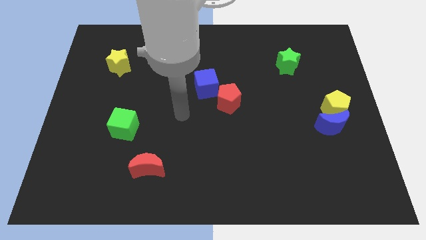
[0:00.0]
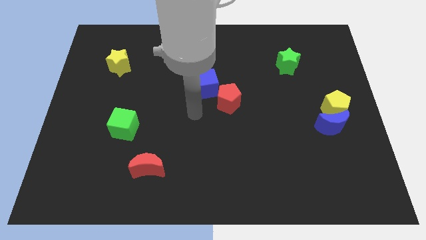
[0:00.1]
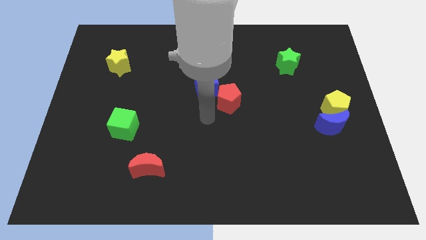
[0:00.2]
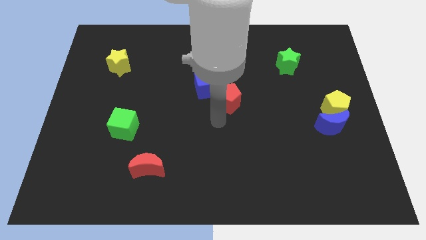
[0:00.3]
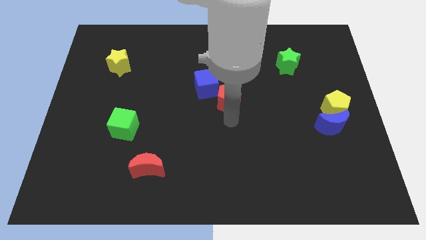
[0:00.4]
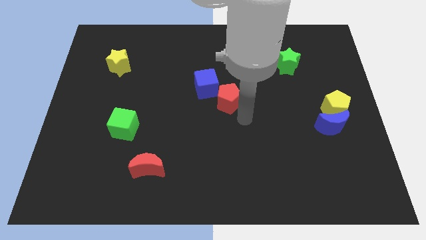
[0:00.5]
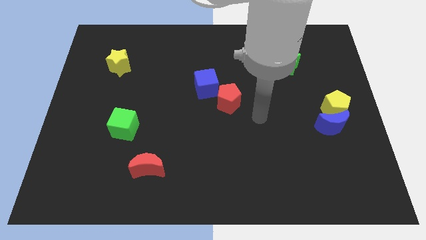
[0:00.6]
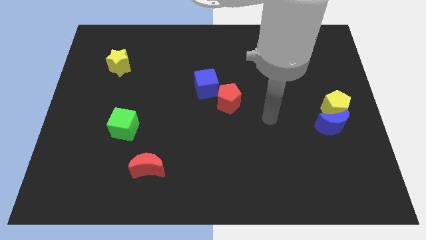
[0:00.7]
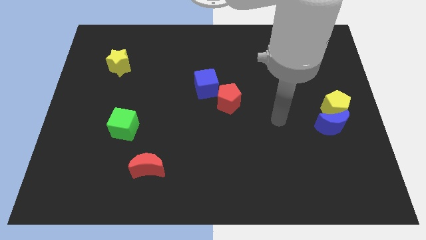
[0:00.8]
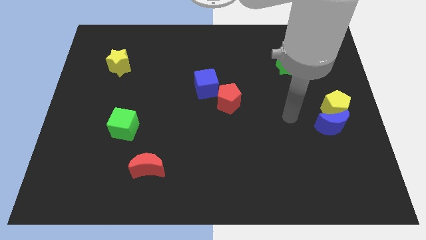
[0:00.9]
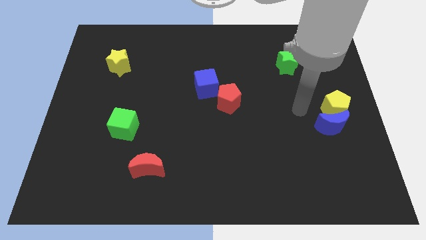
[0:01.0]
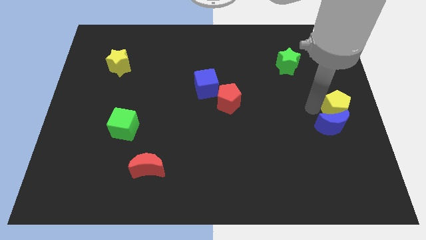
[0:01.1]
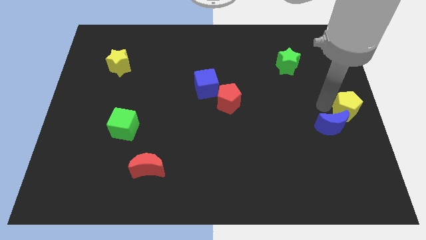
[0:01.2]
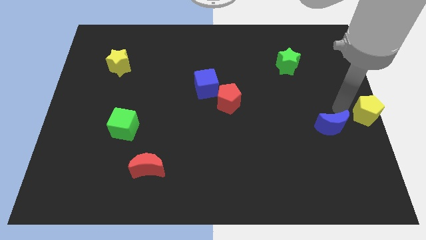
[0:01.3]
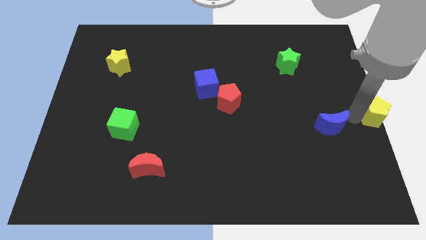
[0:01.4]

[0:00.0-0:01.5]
pull the blue moon apart from the yellow pentagon

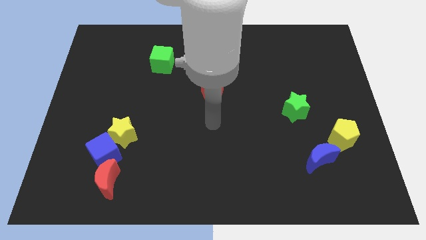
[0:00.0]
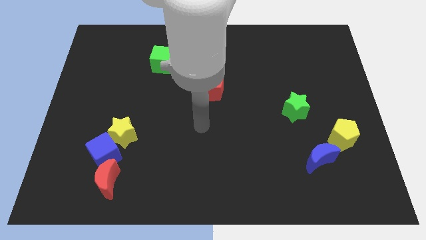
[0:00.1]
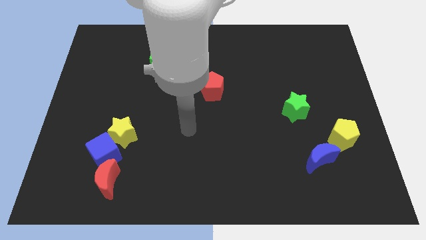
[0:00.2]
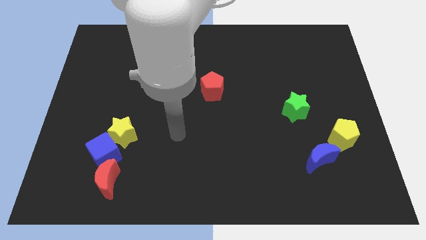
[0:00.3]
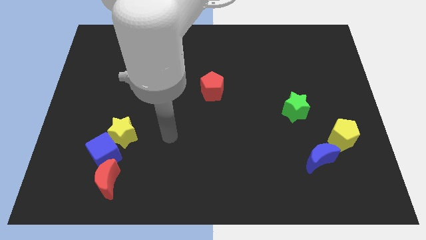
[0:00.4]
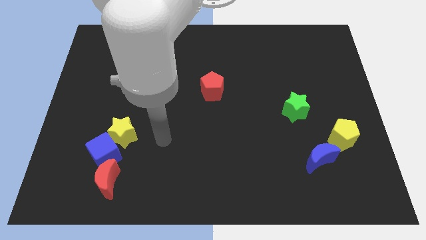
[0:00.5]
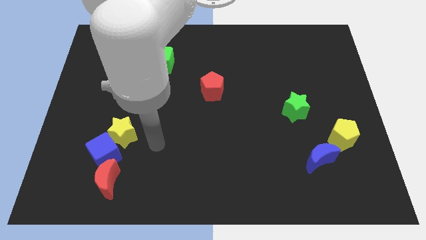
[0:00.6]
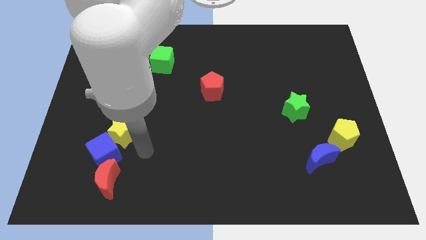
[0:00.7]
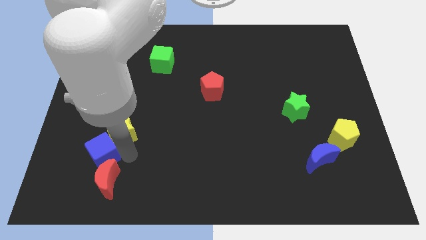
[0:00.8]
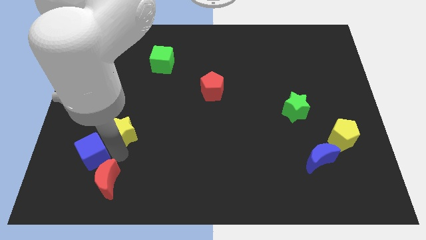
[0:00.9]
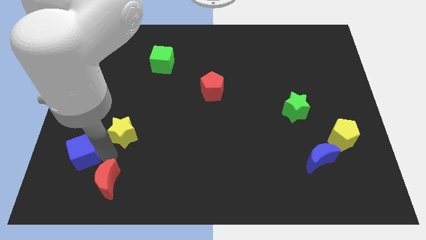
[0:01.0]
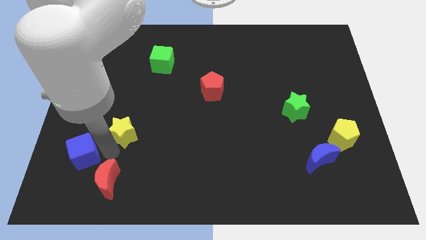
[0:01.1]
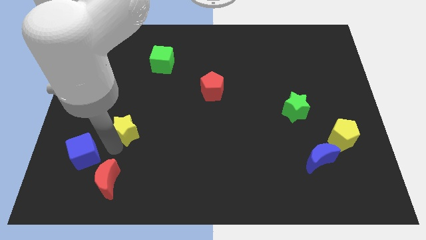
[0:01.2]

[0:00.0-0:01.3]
move the yellow star away from the blue cube

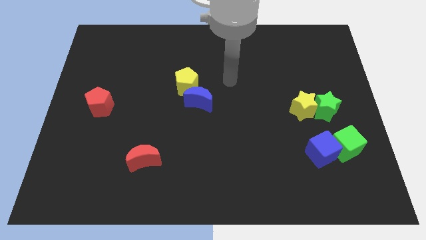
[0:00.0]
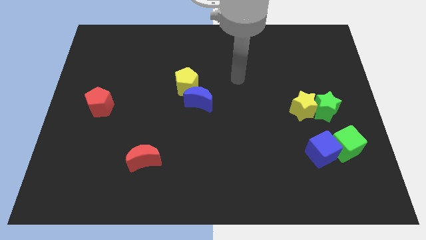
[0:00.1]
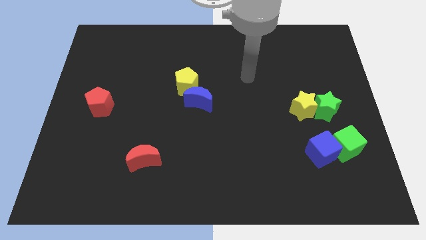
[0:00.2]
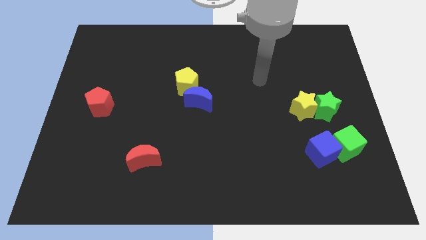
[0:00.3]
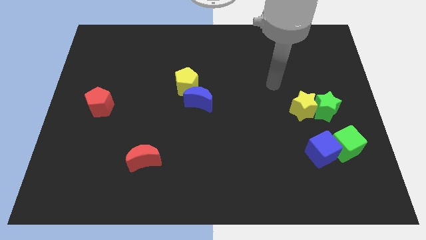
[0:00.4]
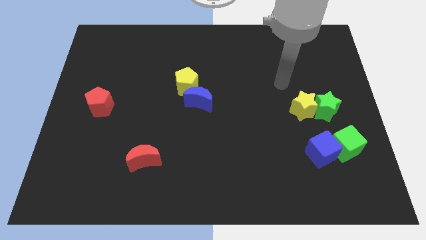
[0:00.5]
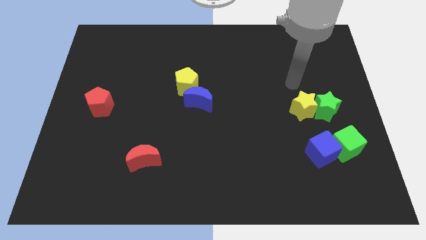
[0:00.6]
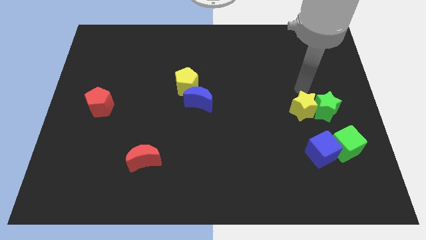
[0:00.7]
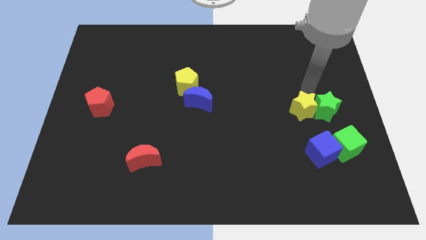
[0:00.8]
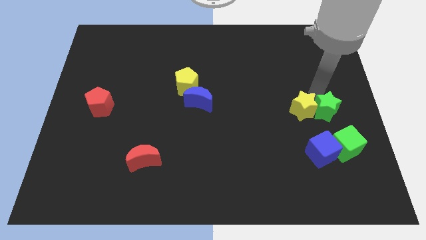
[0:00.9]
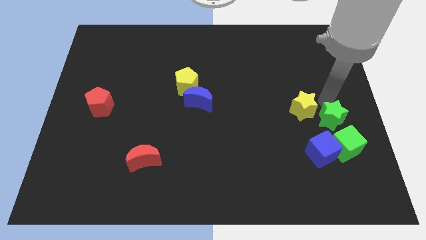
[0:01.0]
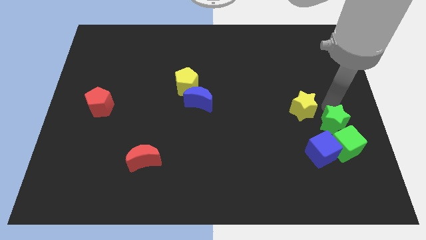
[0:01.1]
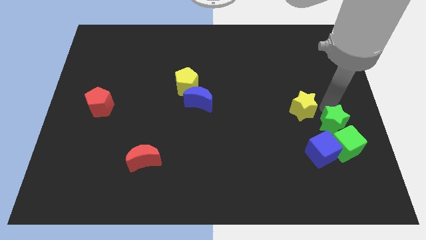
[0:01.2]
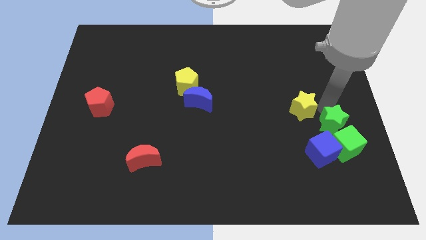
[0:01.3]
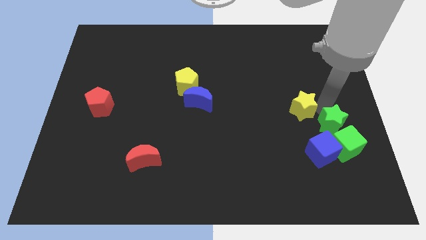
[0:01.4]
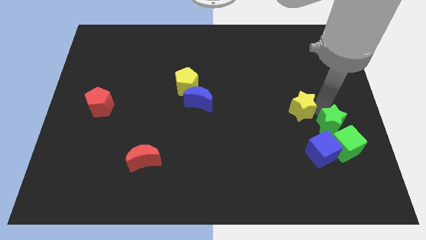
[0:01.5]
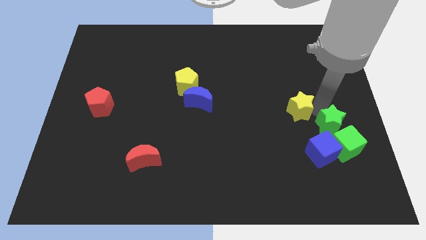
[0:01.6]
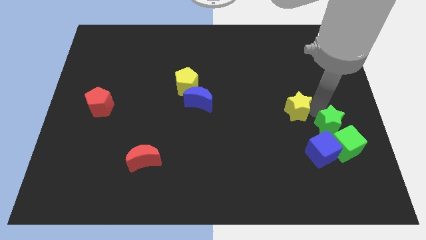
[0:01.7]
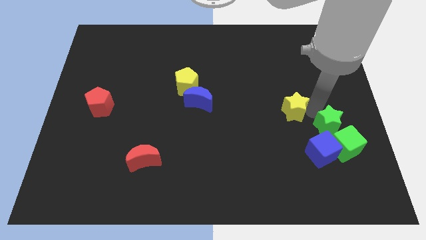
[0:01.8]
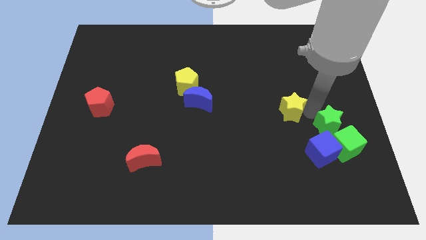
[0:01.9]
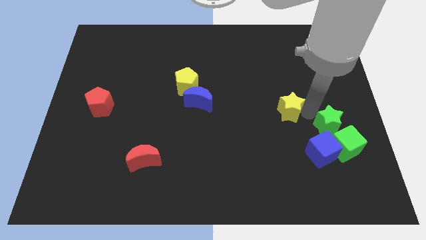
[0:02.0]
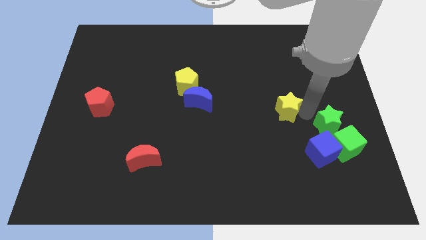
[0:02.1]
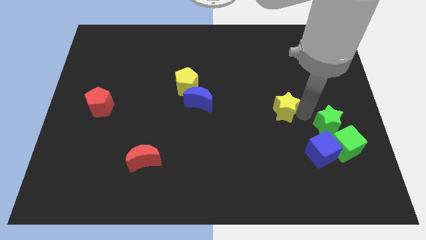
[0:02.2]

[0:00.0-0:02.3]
separate the yellow star from the green star

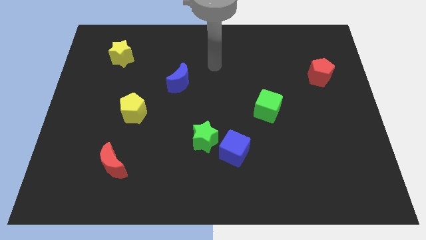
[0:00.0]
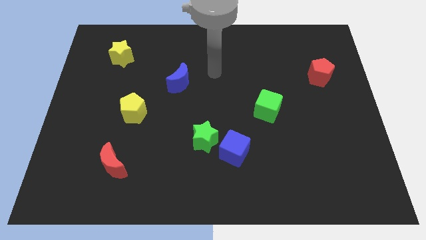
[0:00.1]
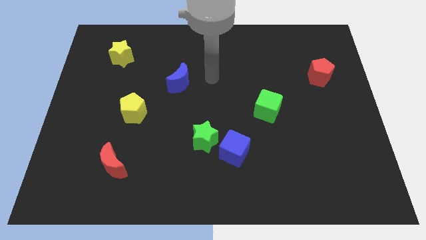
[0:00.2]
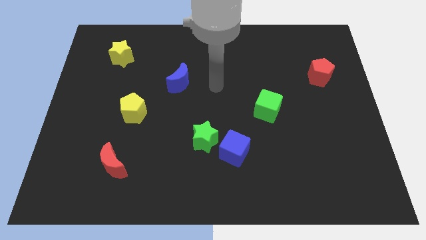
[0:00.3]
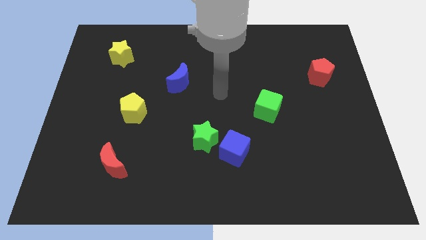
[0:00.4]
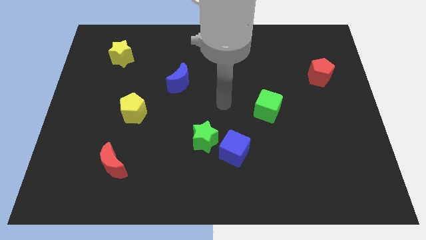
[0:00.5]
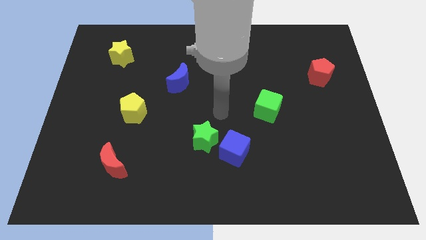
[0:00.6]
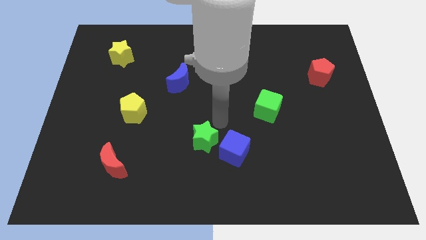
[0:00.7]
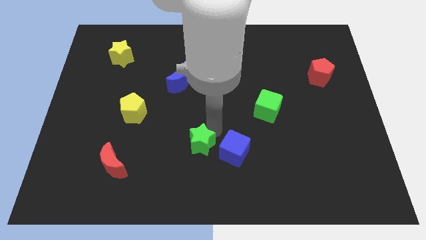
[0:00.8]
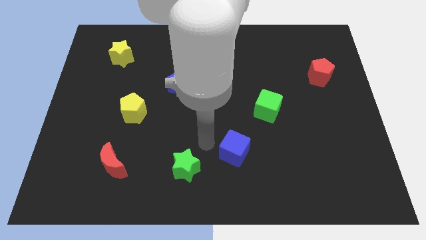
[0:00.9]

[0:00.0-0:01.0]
separate the blue cube from the green star

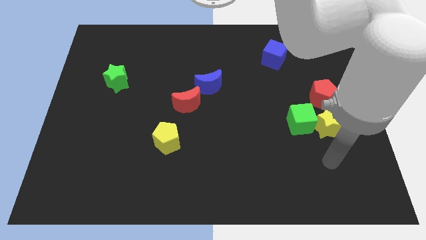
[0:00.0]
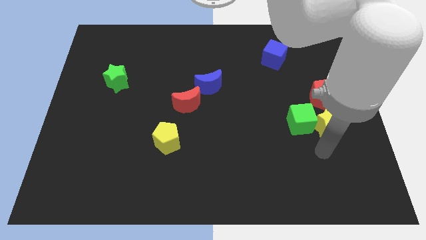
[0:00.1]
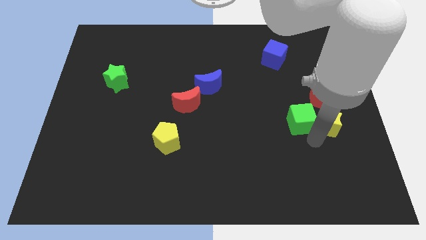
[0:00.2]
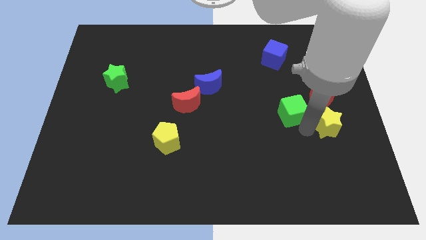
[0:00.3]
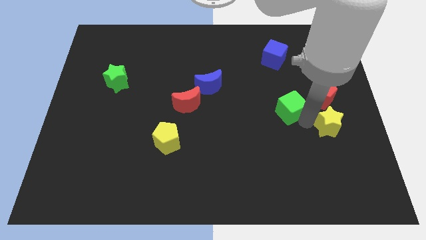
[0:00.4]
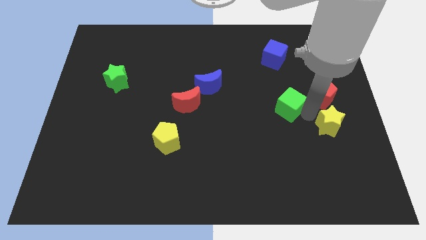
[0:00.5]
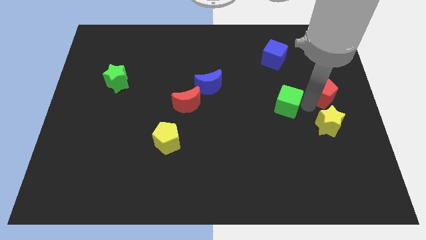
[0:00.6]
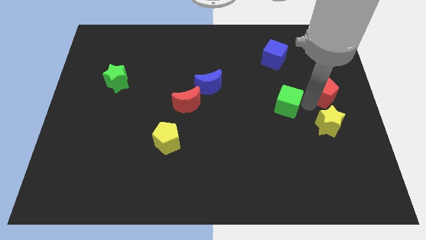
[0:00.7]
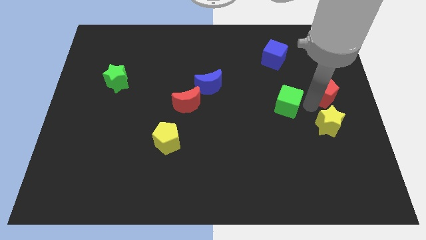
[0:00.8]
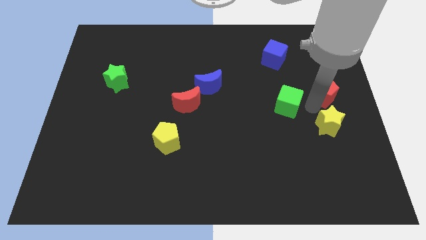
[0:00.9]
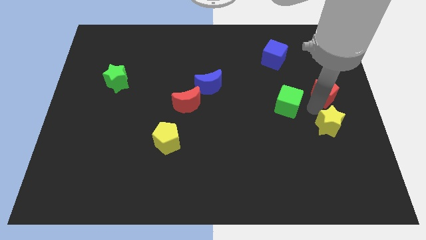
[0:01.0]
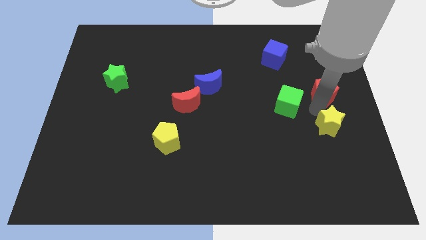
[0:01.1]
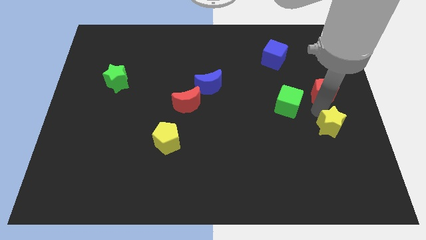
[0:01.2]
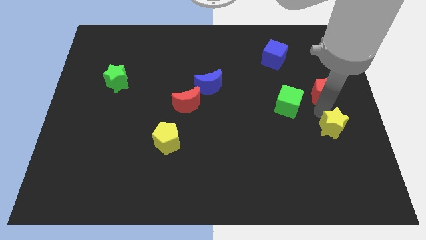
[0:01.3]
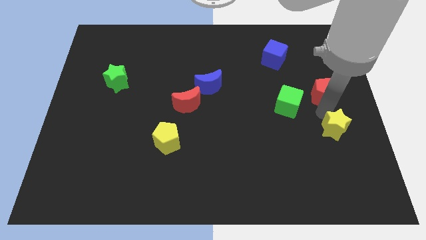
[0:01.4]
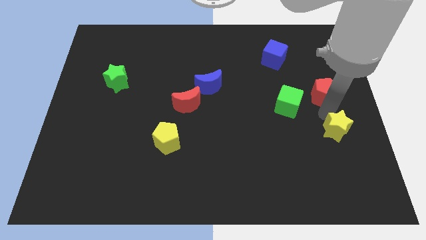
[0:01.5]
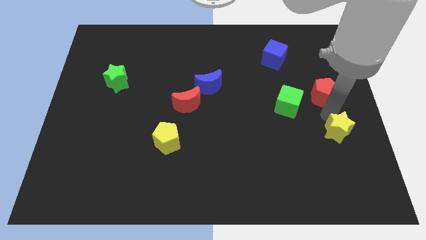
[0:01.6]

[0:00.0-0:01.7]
separate the yellow star from the green cube and red pentagon

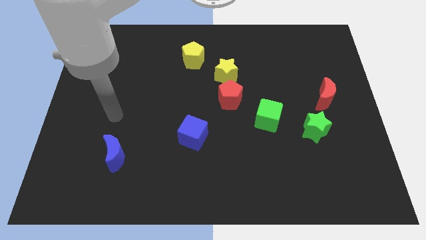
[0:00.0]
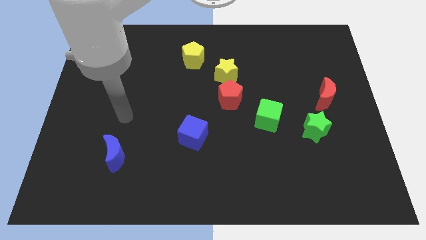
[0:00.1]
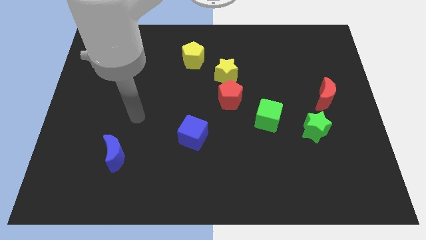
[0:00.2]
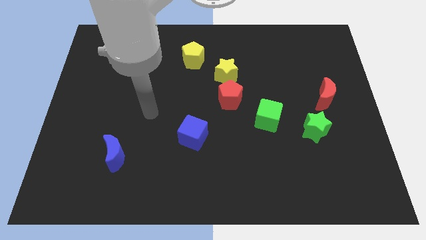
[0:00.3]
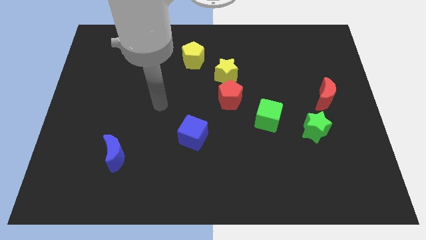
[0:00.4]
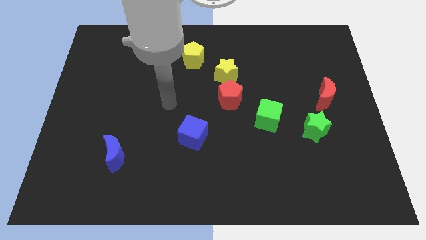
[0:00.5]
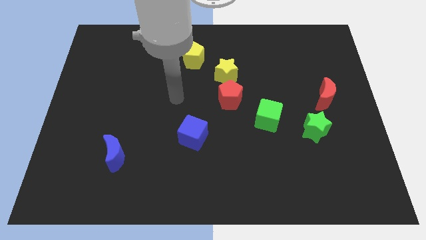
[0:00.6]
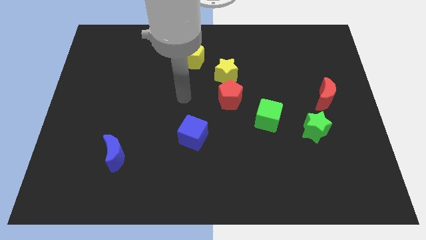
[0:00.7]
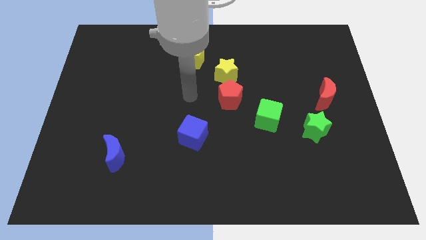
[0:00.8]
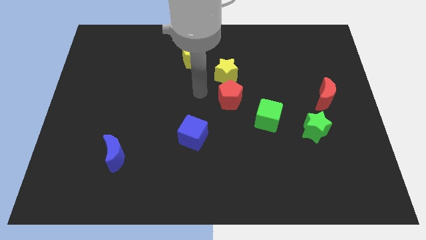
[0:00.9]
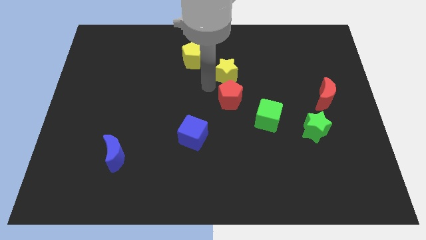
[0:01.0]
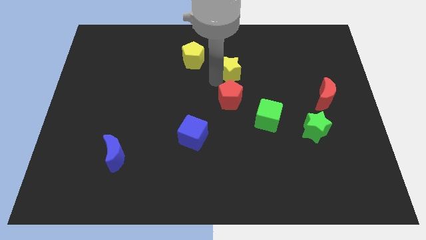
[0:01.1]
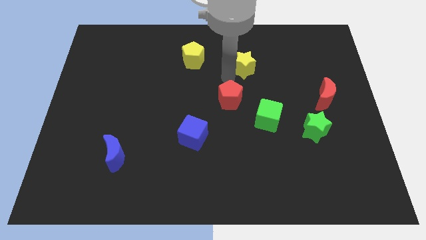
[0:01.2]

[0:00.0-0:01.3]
separate the red pentagon from the yellow star

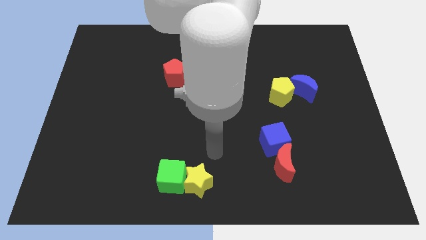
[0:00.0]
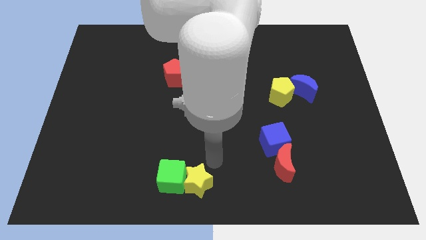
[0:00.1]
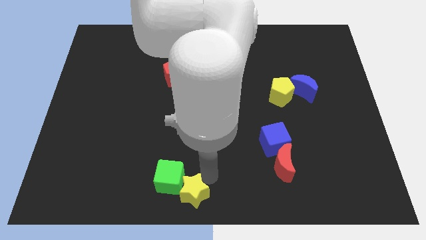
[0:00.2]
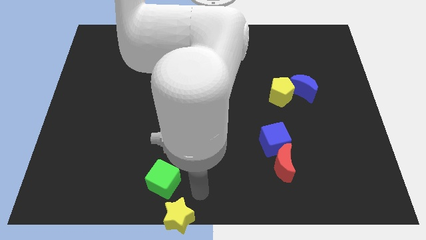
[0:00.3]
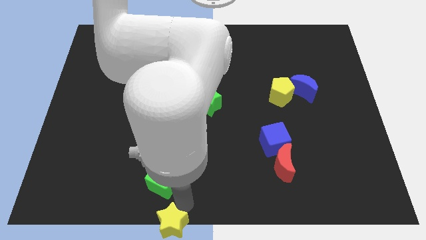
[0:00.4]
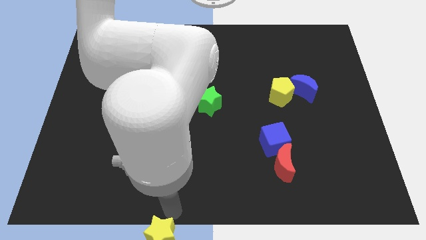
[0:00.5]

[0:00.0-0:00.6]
move the green cube away from the yellow star
